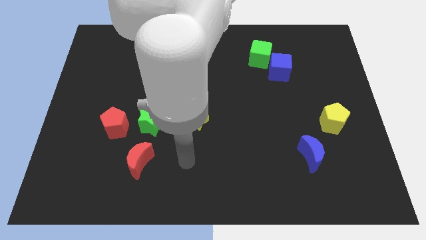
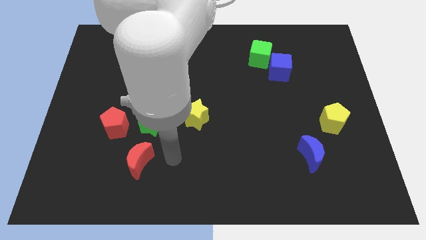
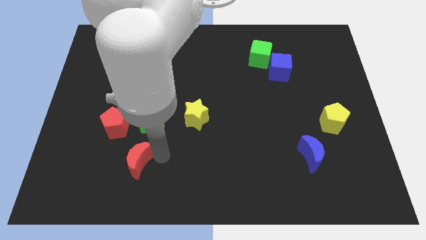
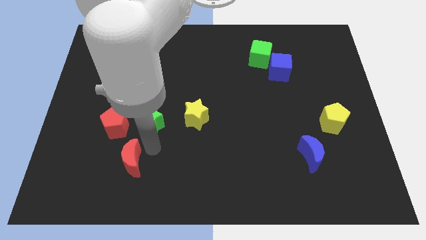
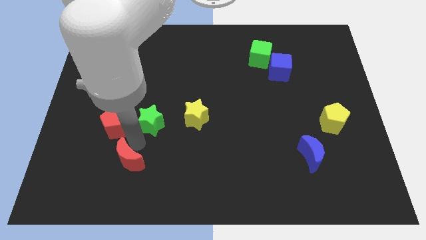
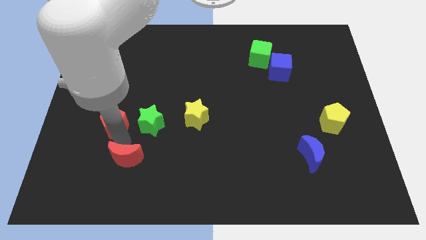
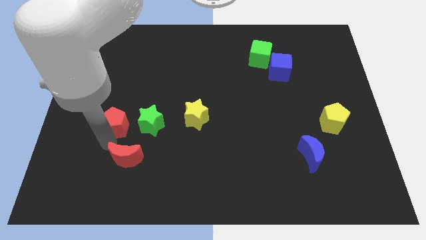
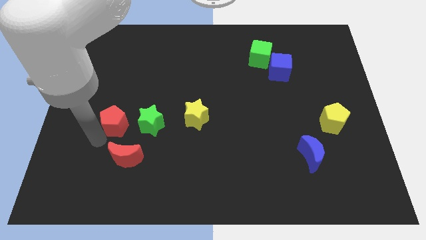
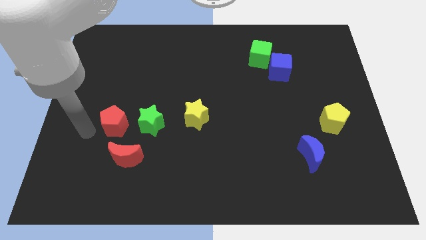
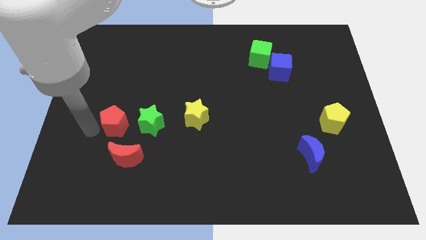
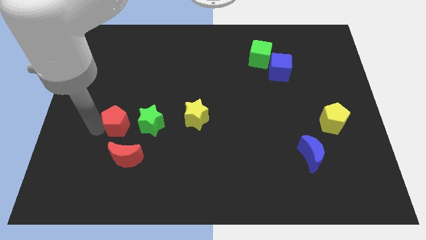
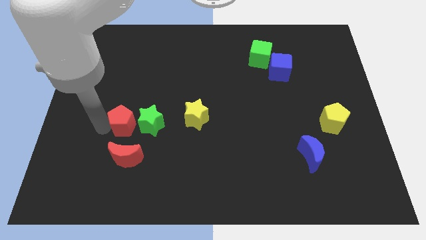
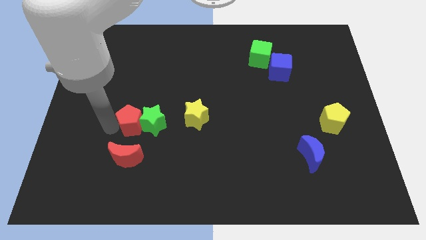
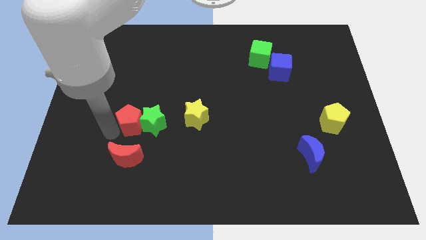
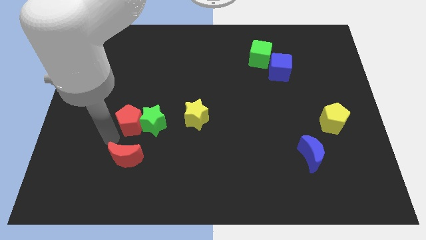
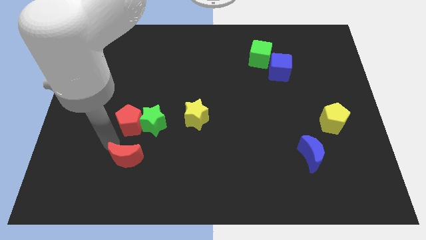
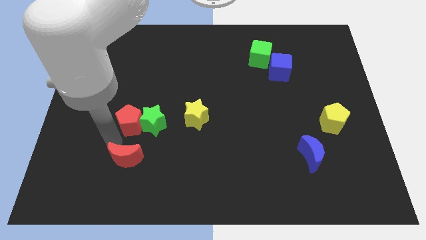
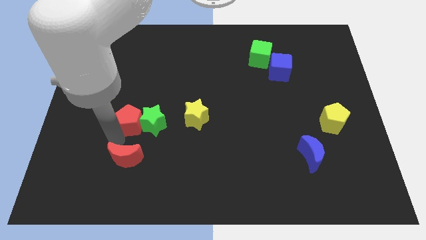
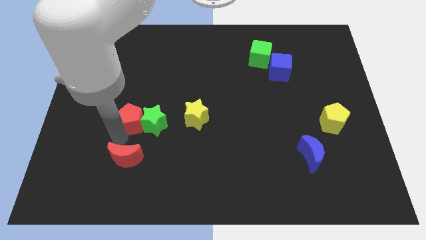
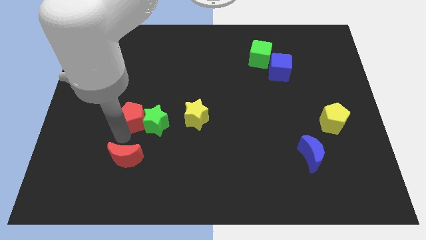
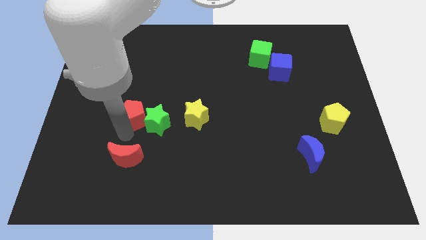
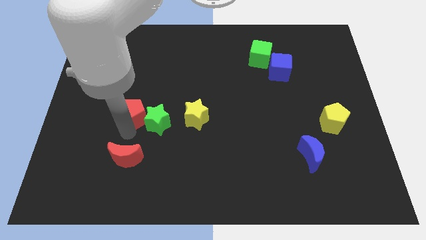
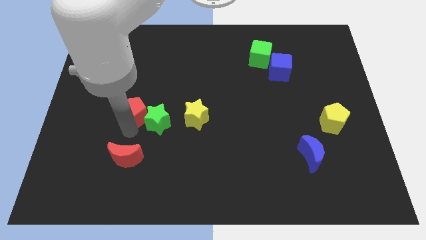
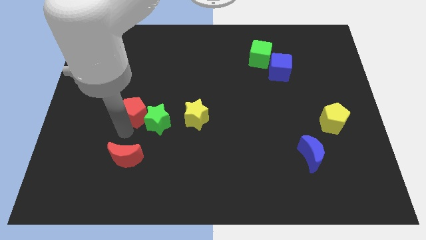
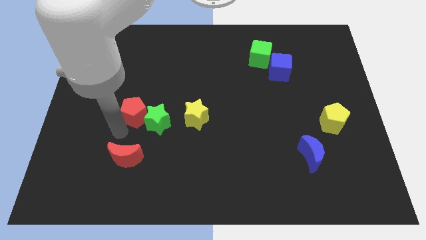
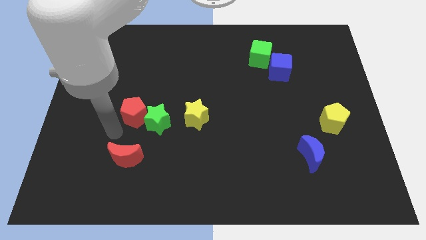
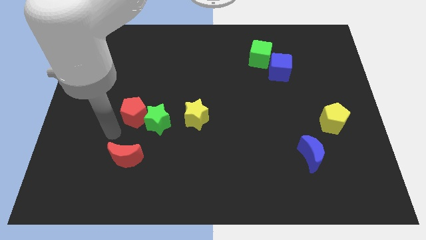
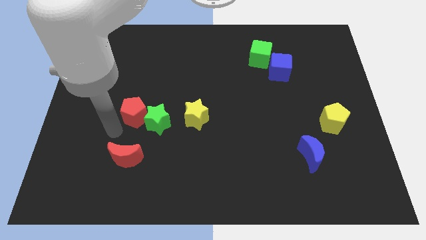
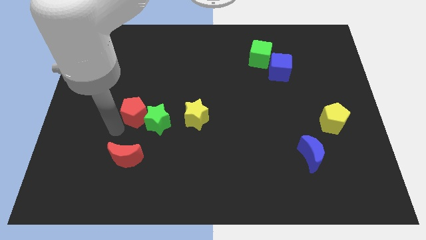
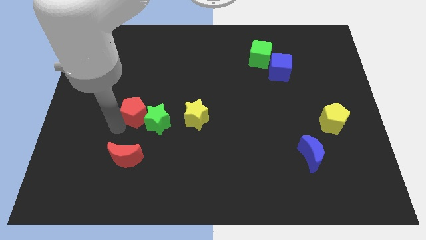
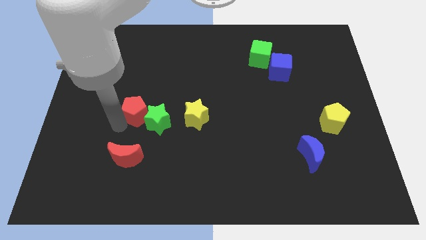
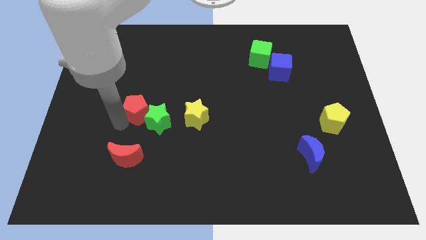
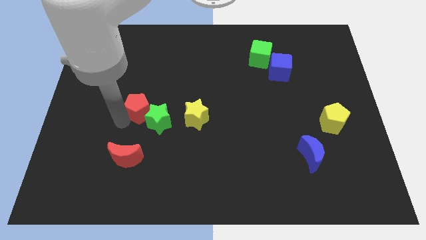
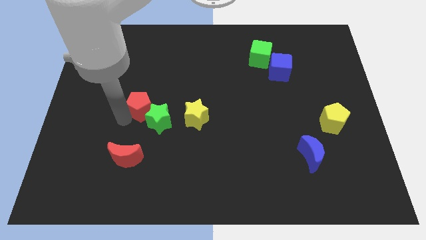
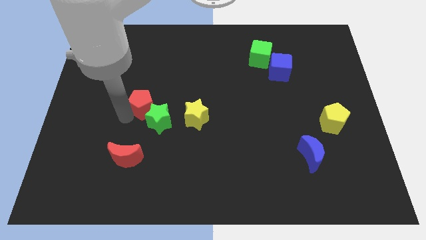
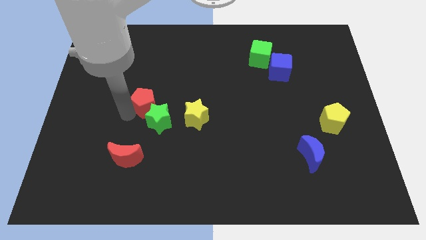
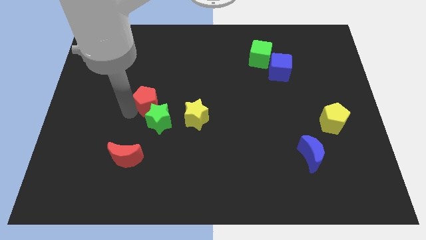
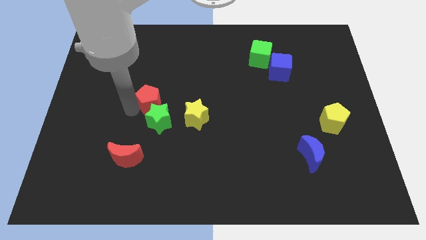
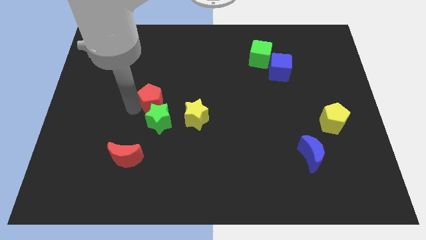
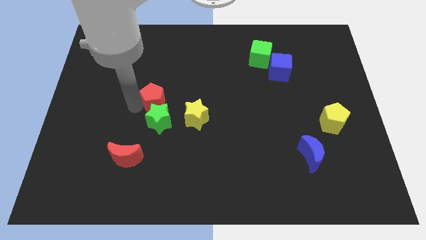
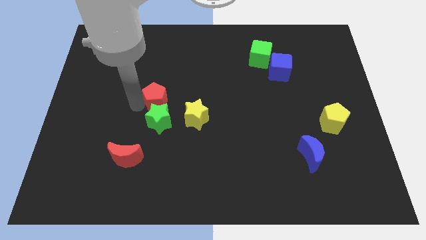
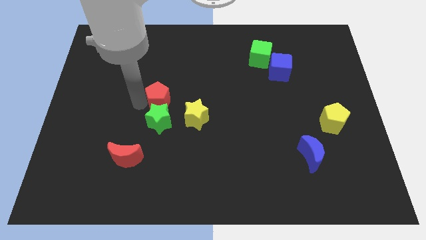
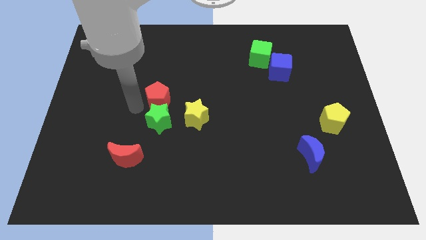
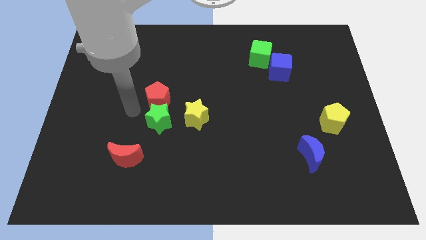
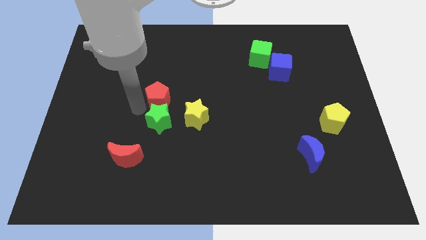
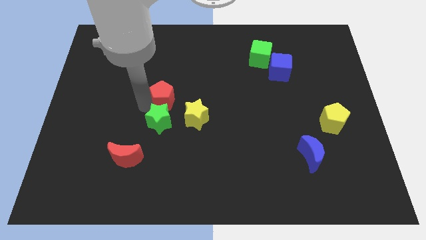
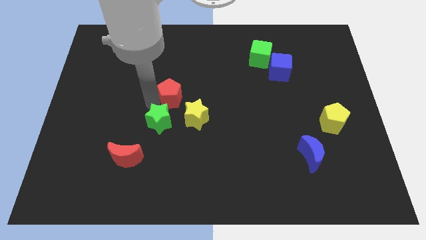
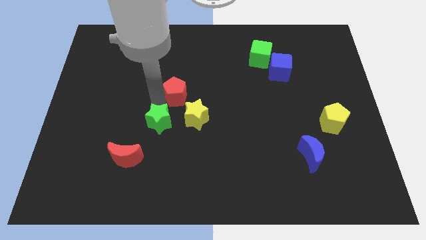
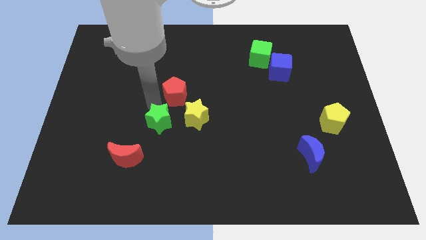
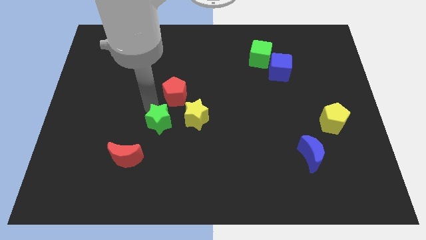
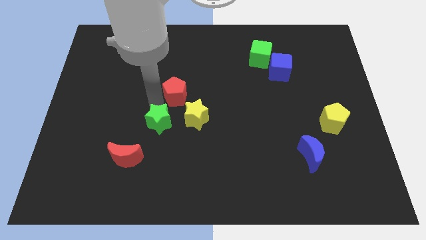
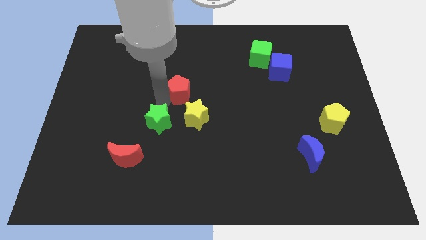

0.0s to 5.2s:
put the red pentagon to the top of the yellow star

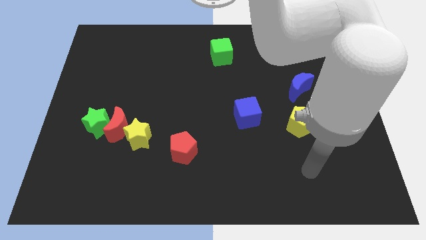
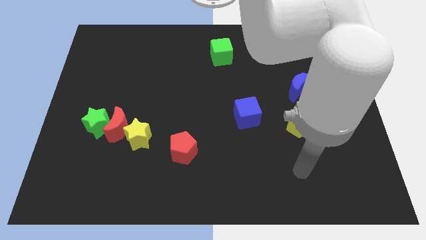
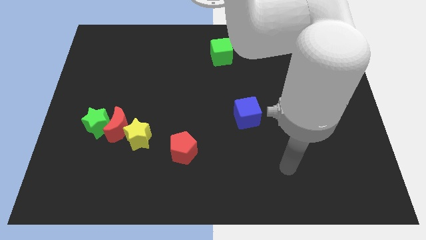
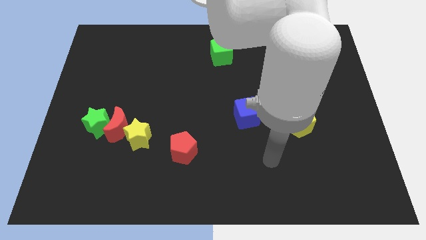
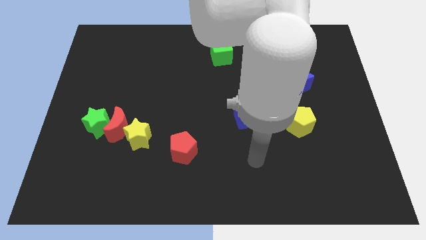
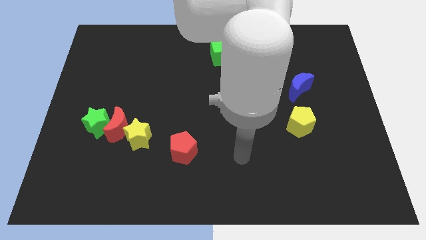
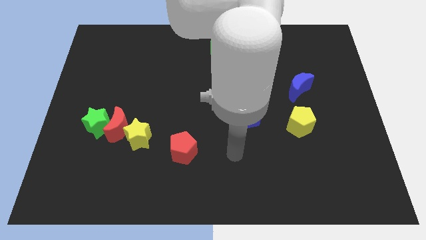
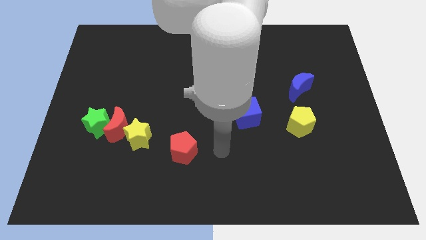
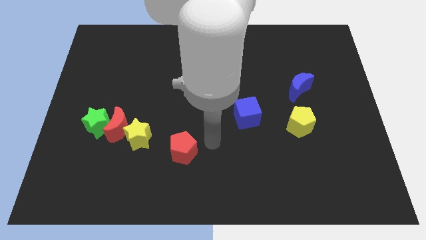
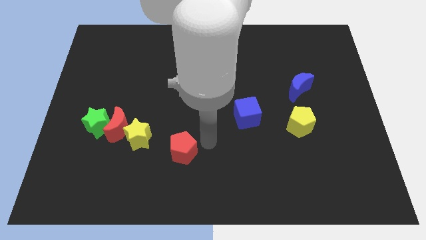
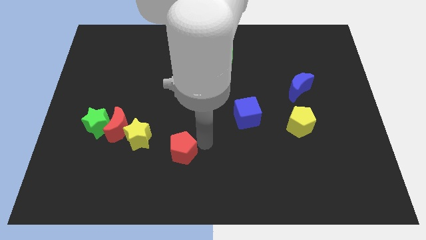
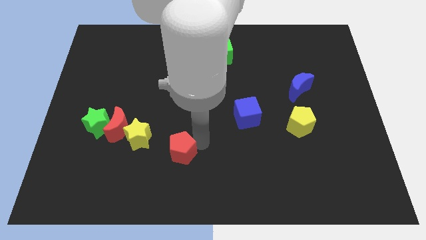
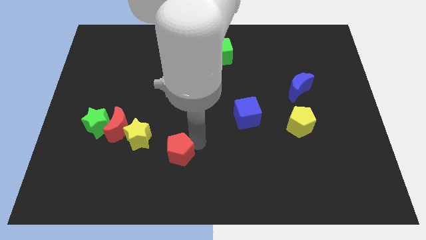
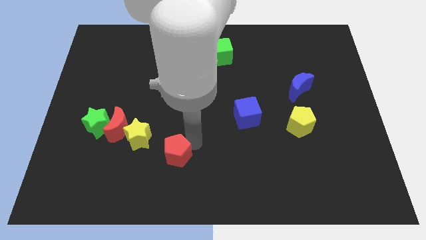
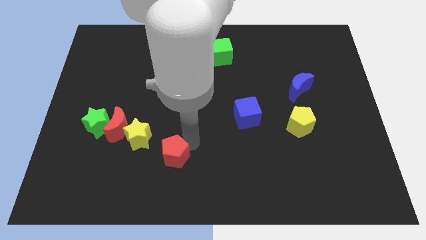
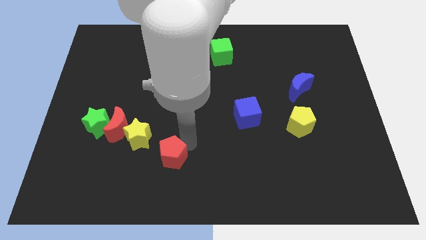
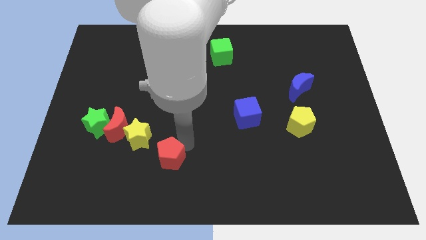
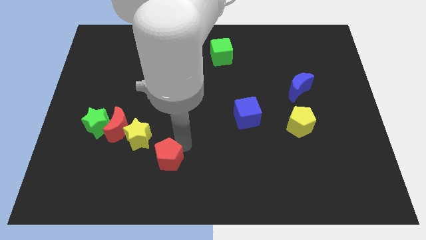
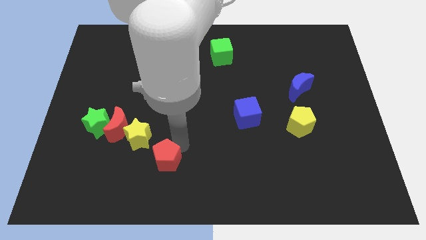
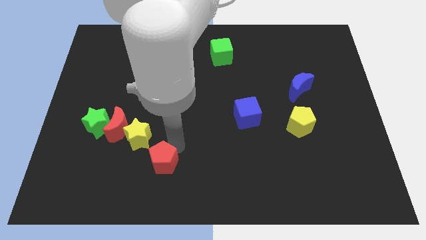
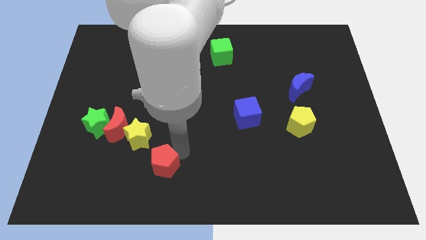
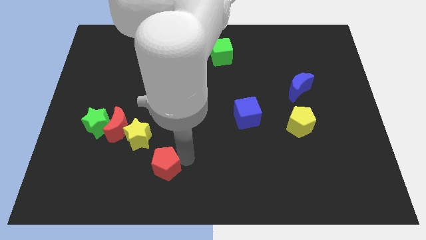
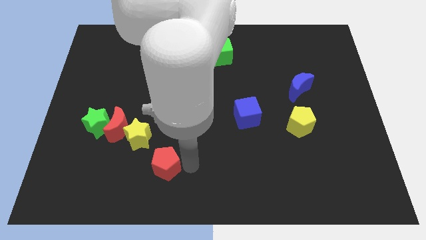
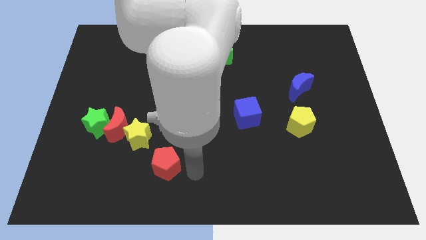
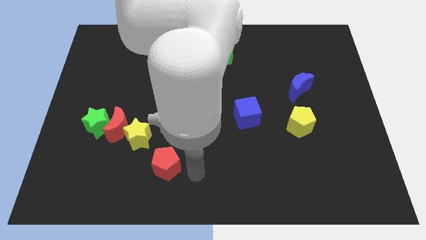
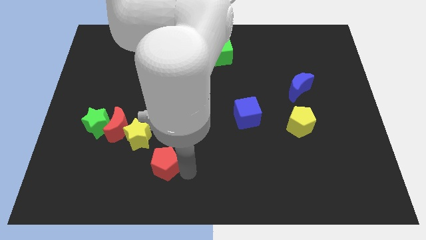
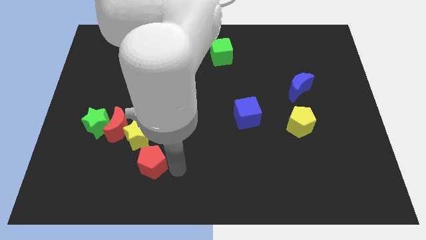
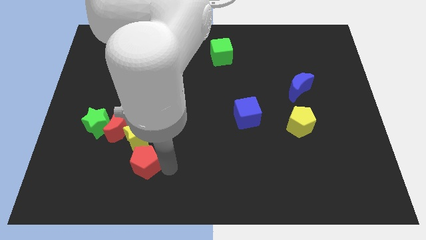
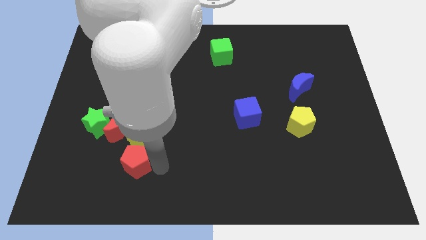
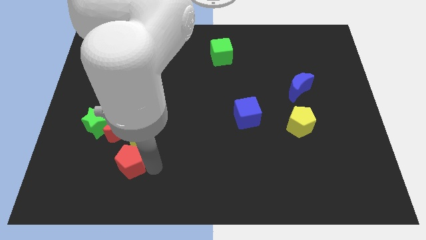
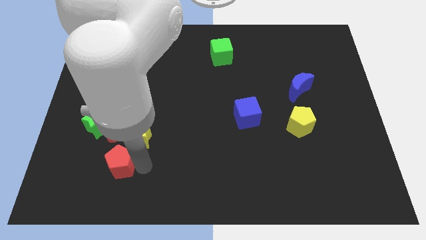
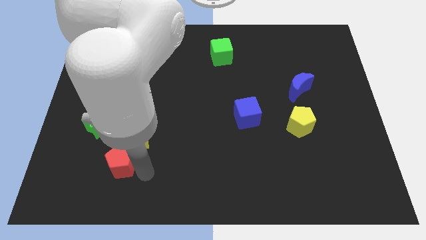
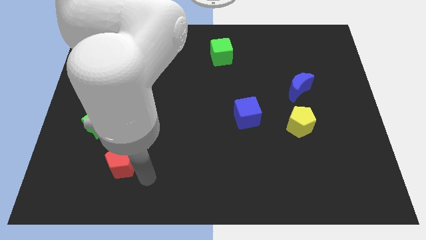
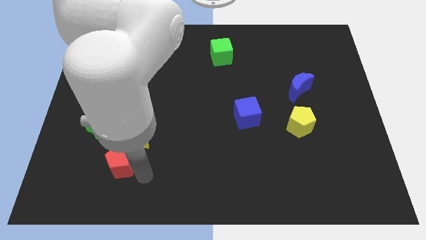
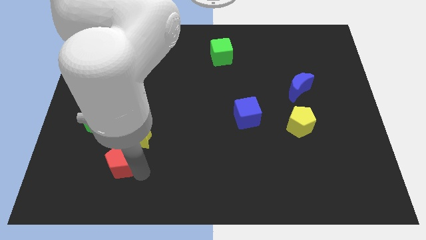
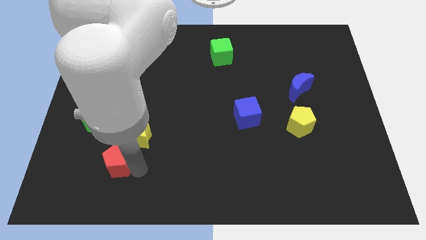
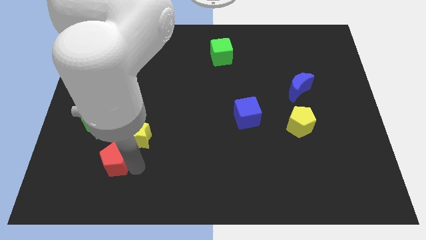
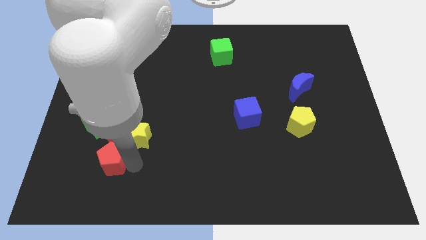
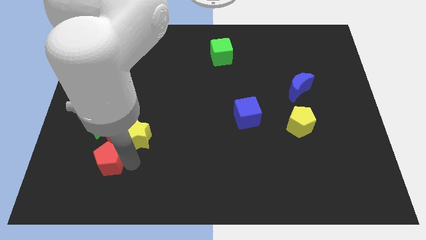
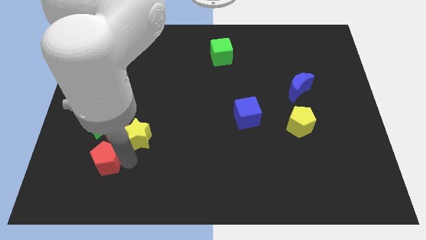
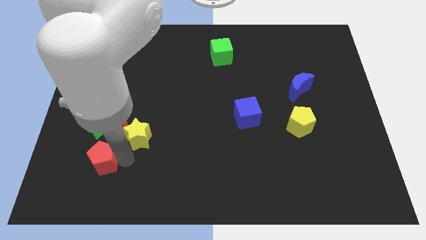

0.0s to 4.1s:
slide the red pentagon to the bottom left side of the red moon
